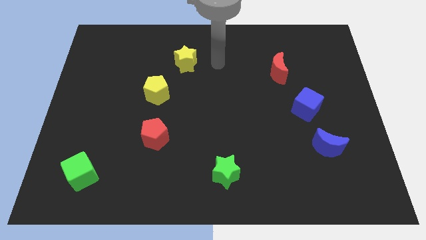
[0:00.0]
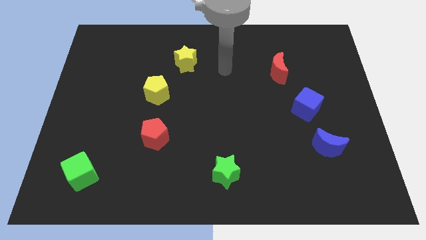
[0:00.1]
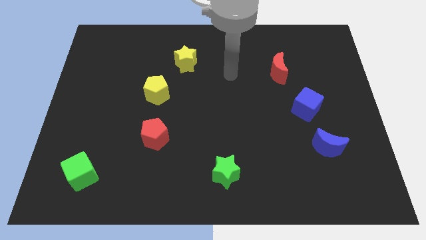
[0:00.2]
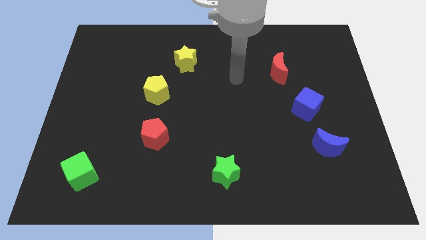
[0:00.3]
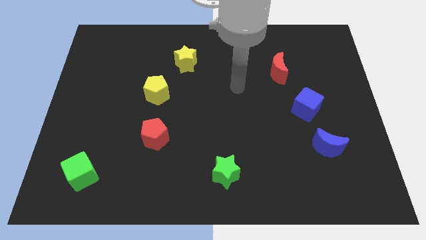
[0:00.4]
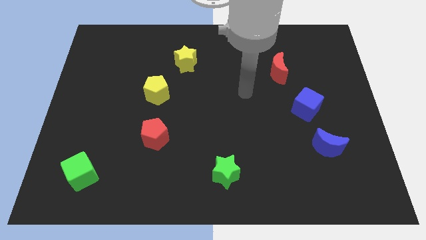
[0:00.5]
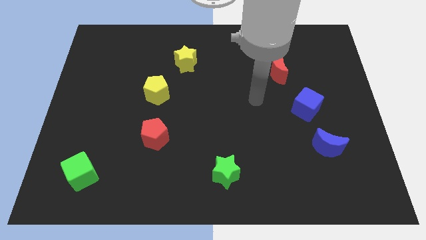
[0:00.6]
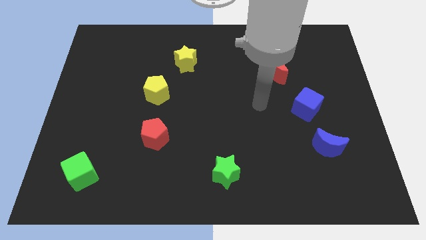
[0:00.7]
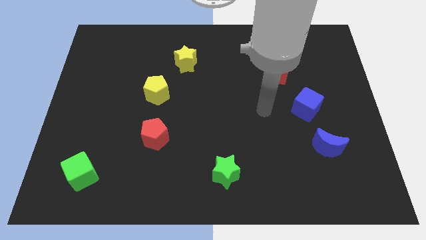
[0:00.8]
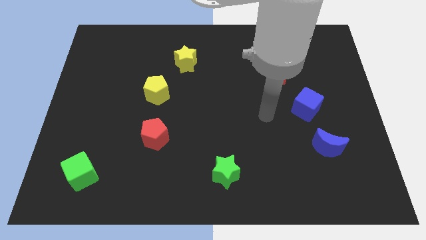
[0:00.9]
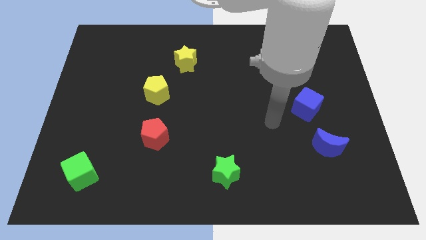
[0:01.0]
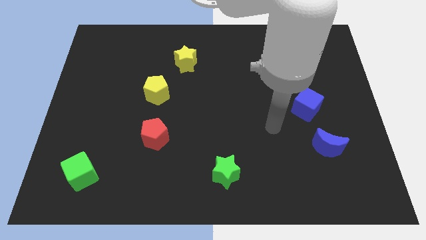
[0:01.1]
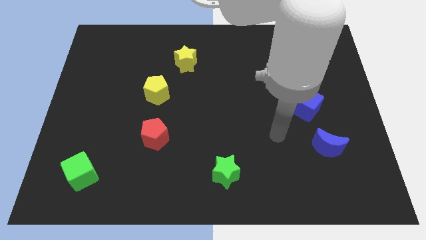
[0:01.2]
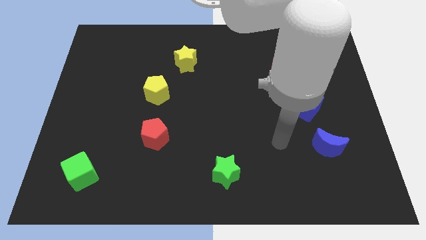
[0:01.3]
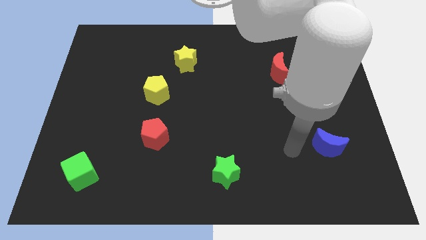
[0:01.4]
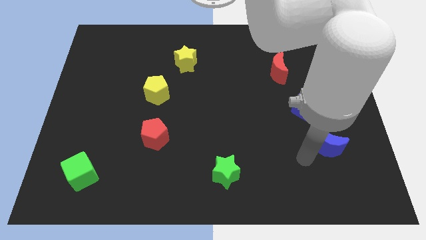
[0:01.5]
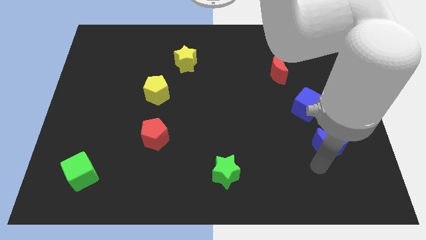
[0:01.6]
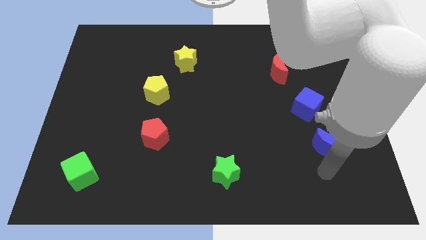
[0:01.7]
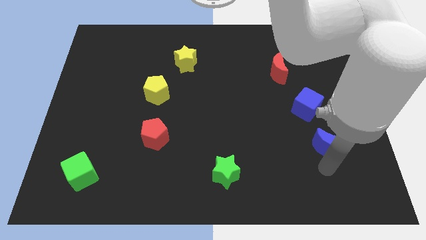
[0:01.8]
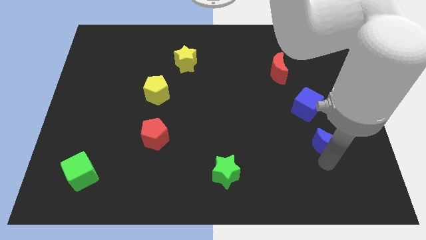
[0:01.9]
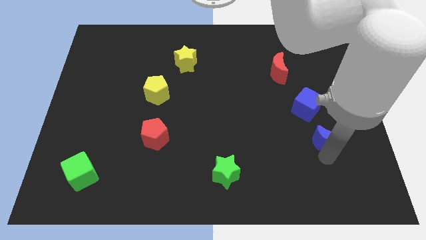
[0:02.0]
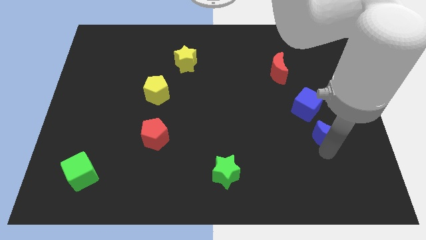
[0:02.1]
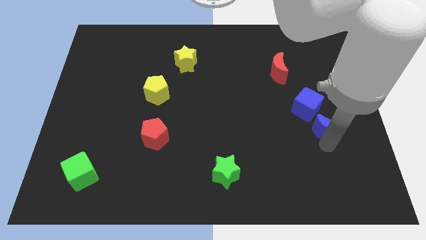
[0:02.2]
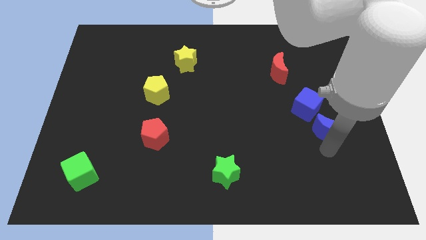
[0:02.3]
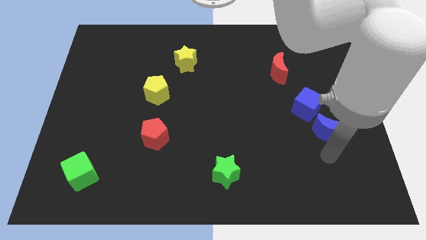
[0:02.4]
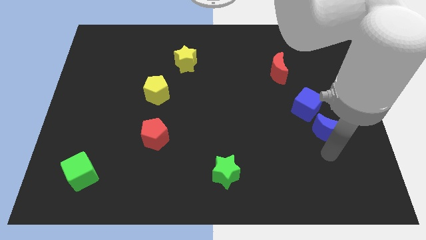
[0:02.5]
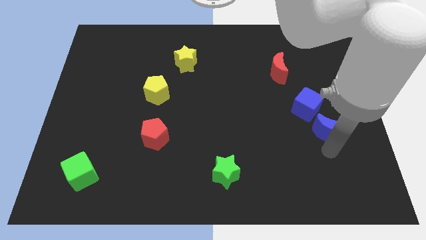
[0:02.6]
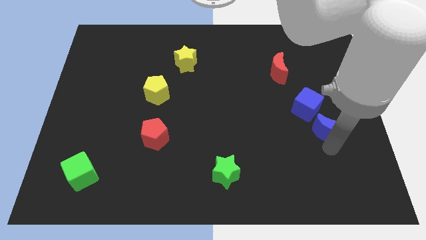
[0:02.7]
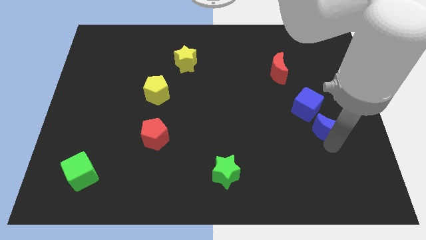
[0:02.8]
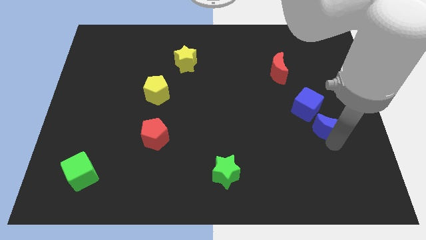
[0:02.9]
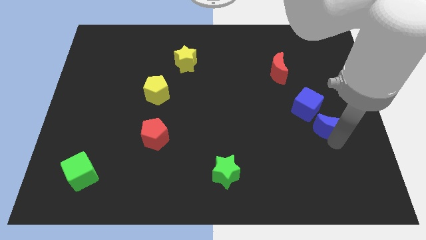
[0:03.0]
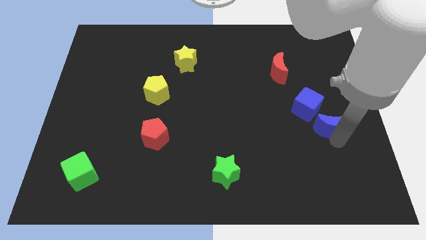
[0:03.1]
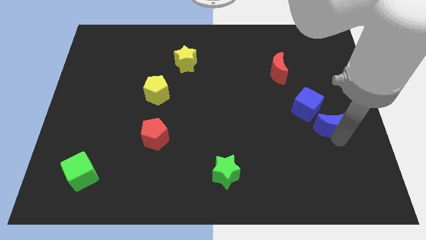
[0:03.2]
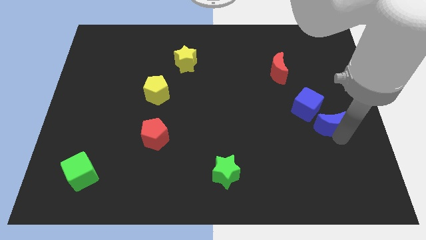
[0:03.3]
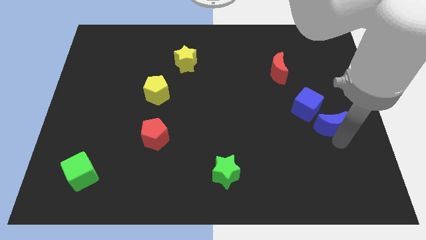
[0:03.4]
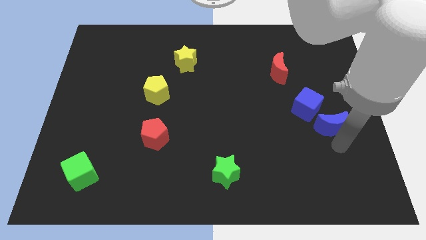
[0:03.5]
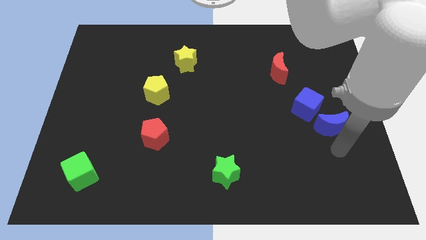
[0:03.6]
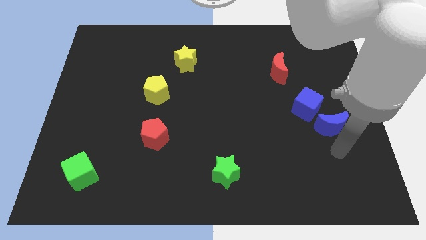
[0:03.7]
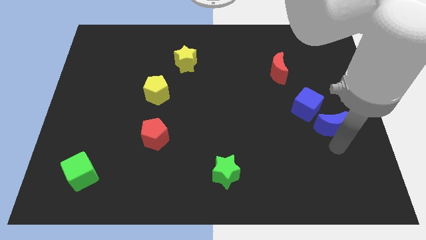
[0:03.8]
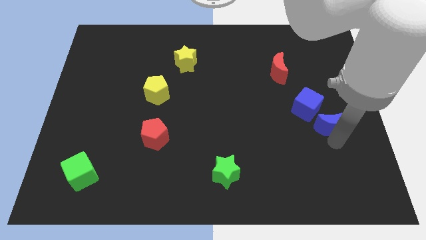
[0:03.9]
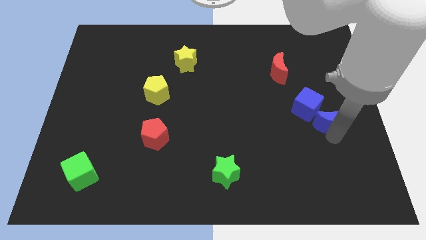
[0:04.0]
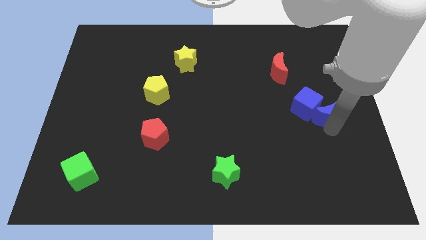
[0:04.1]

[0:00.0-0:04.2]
move the blue moon up slightly

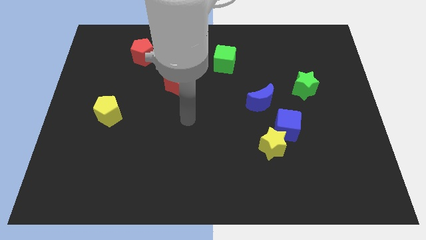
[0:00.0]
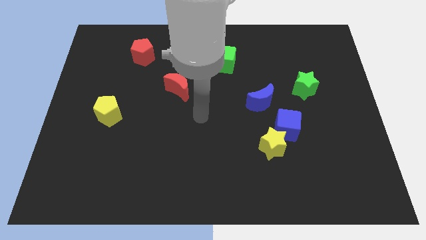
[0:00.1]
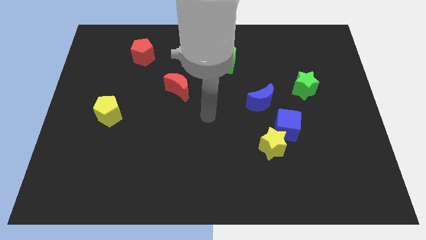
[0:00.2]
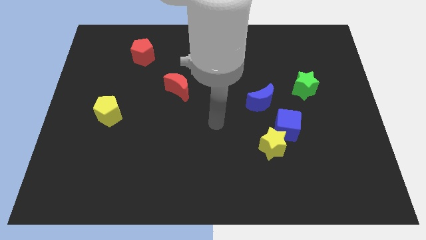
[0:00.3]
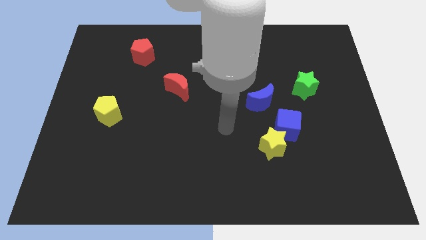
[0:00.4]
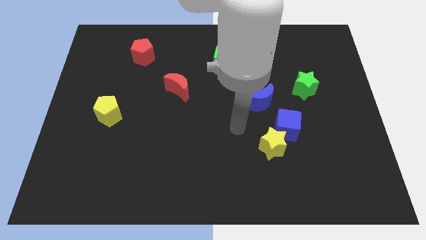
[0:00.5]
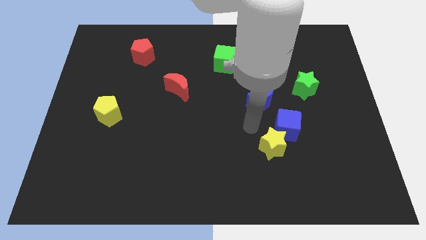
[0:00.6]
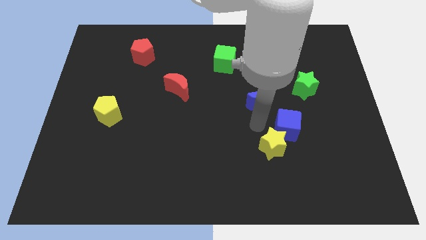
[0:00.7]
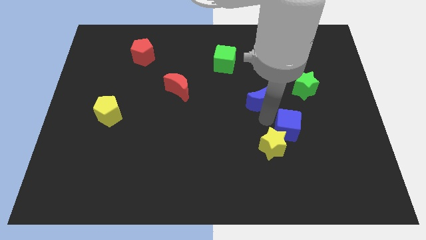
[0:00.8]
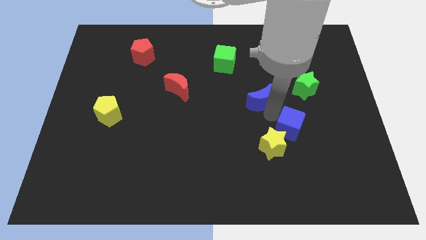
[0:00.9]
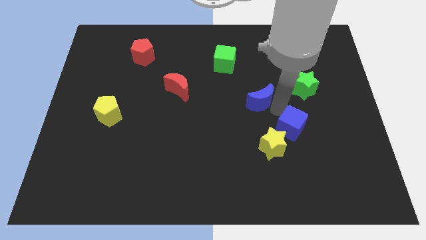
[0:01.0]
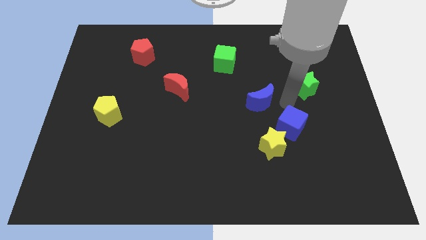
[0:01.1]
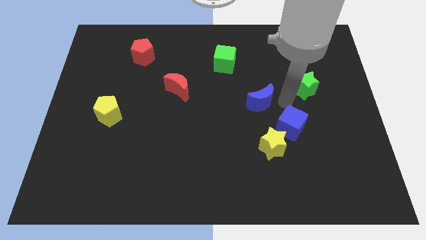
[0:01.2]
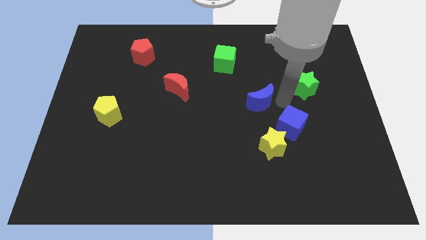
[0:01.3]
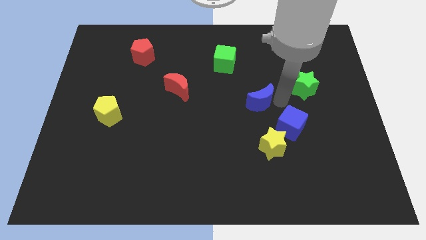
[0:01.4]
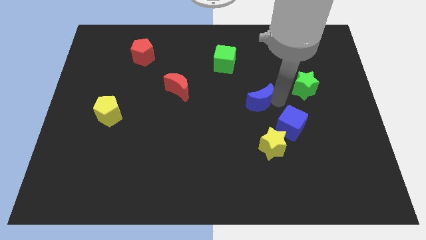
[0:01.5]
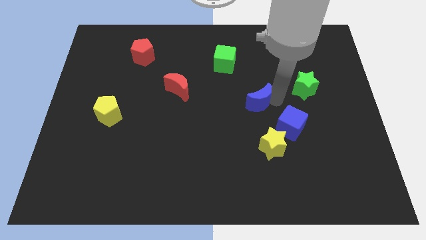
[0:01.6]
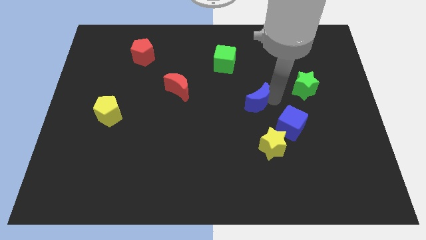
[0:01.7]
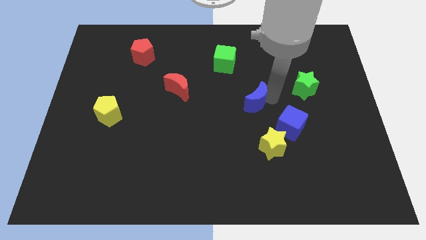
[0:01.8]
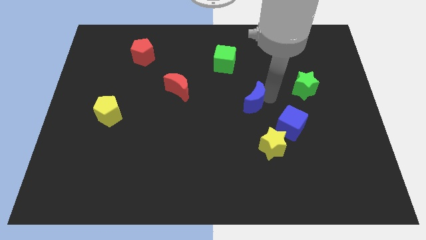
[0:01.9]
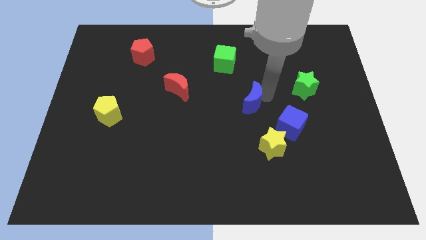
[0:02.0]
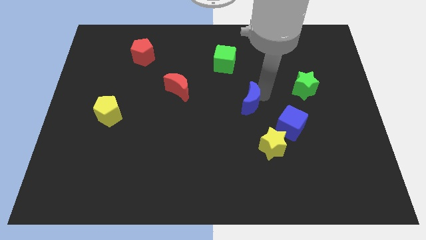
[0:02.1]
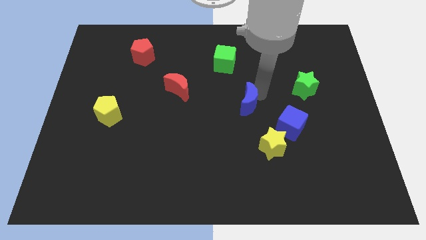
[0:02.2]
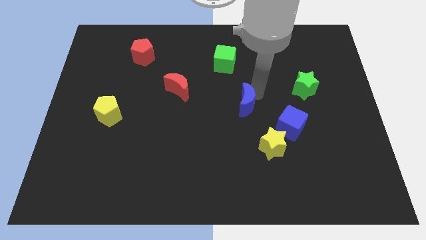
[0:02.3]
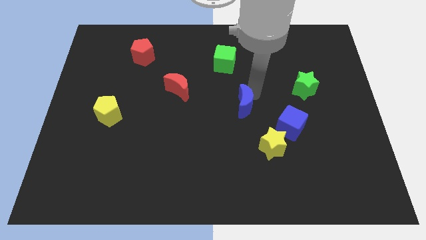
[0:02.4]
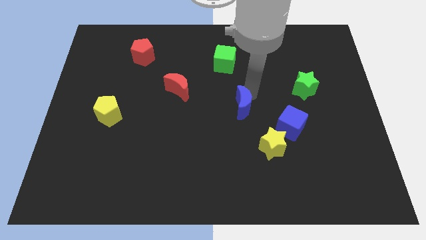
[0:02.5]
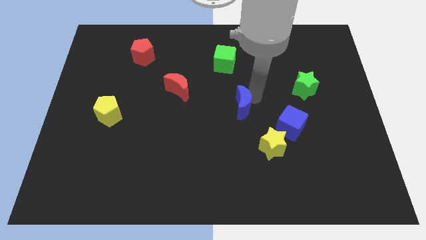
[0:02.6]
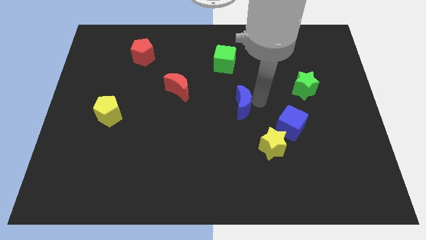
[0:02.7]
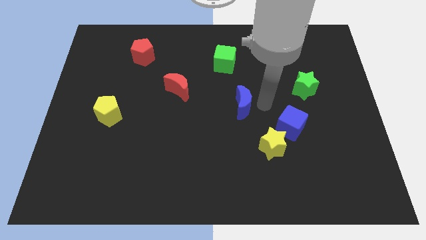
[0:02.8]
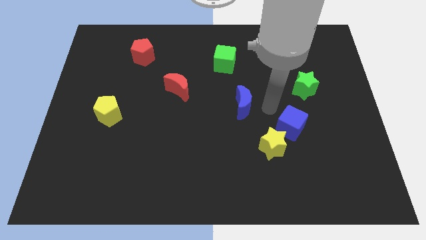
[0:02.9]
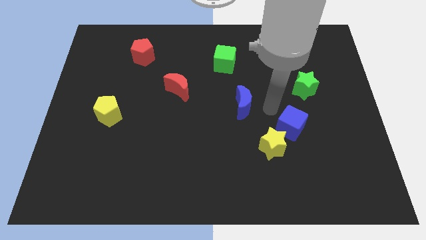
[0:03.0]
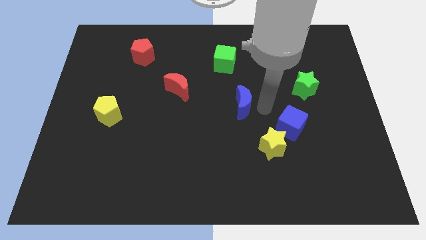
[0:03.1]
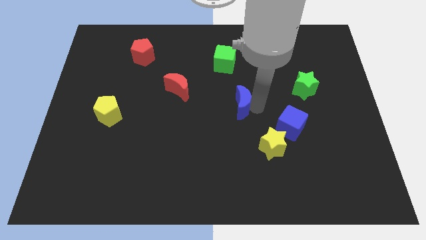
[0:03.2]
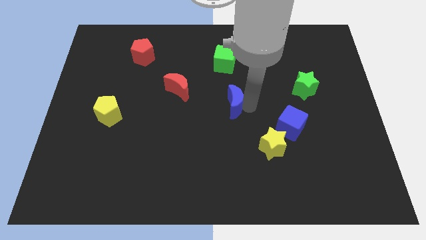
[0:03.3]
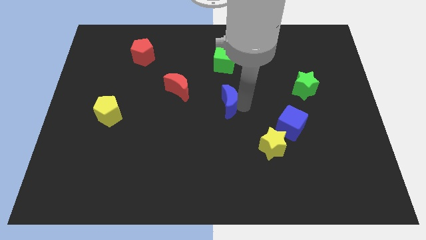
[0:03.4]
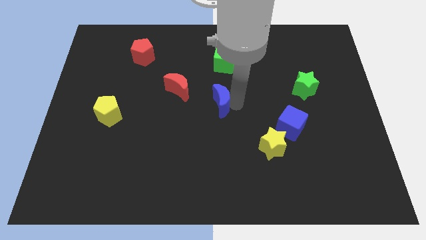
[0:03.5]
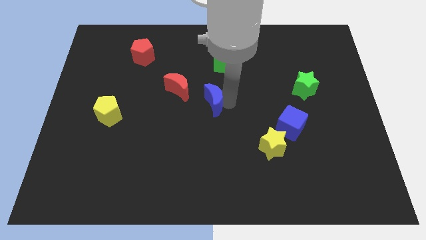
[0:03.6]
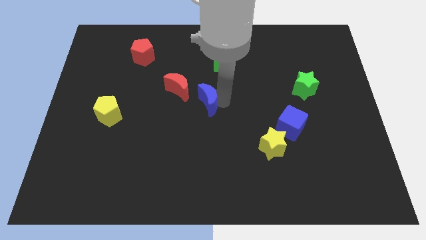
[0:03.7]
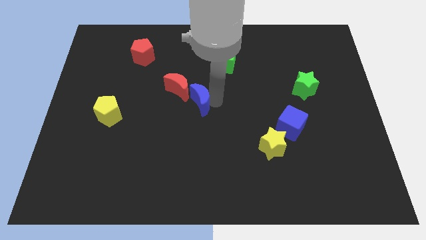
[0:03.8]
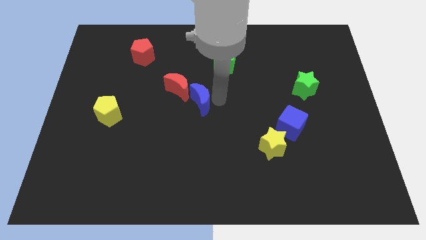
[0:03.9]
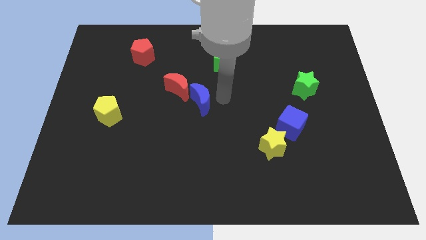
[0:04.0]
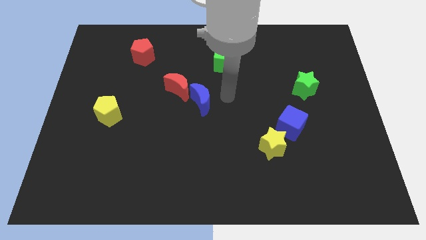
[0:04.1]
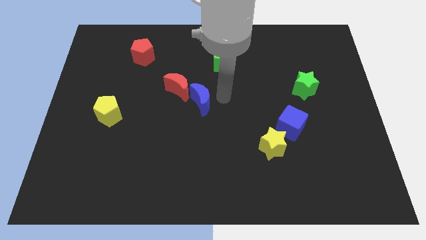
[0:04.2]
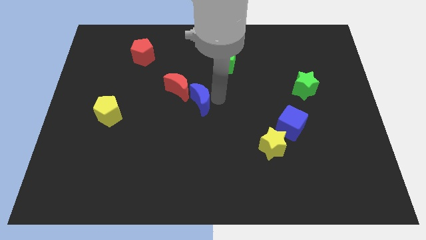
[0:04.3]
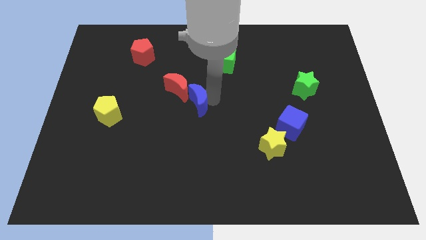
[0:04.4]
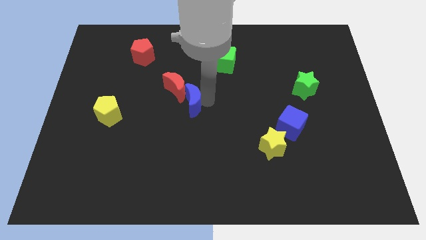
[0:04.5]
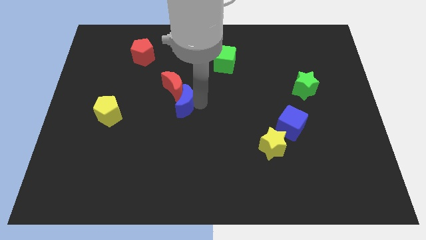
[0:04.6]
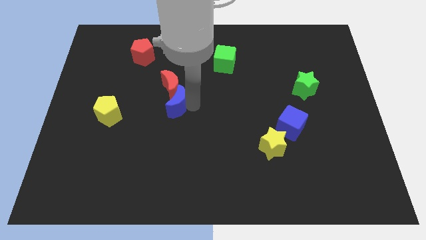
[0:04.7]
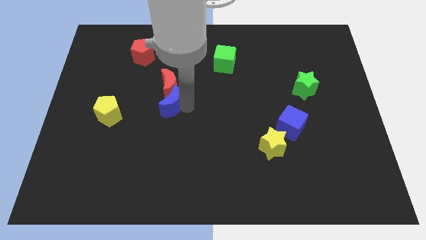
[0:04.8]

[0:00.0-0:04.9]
move the blue moon to the left
